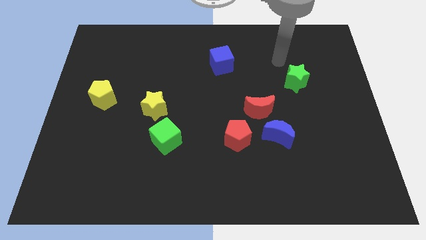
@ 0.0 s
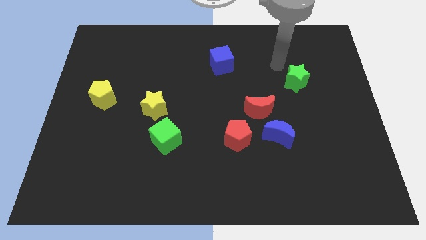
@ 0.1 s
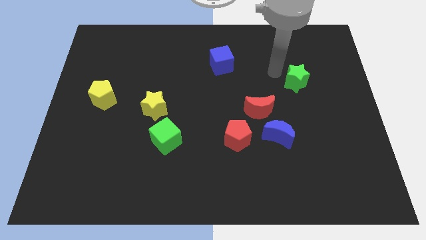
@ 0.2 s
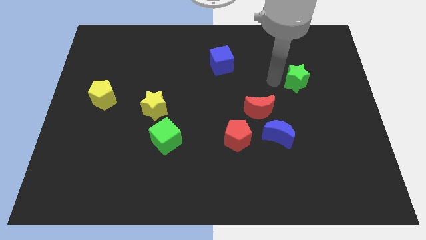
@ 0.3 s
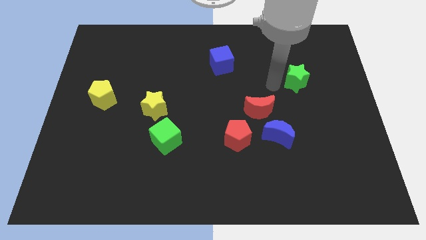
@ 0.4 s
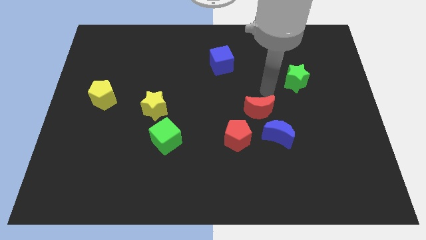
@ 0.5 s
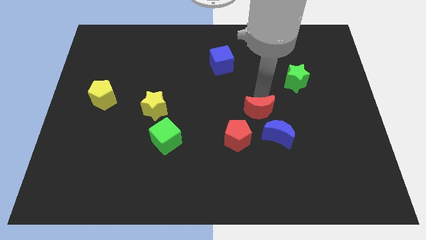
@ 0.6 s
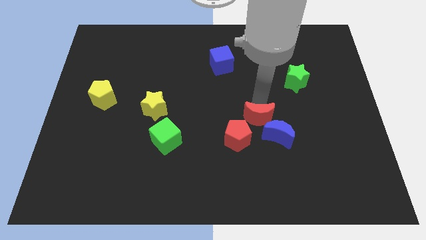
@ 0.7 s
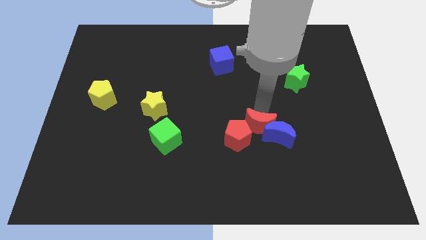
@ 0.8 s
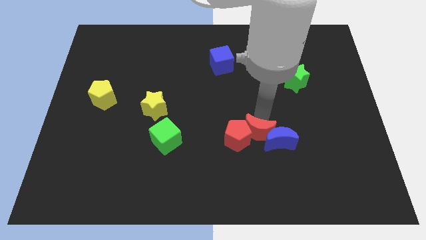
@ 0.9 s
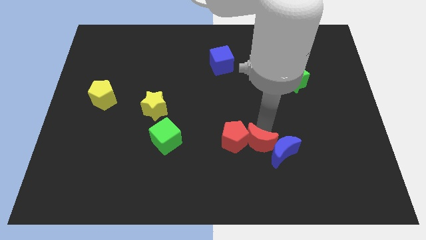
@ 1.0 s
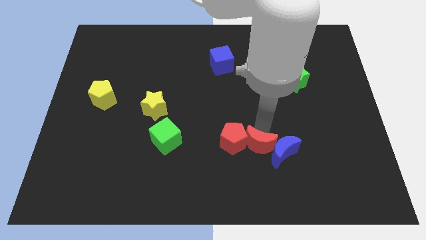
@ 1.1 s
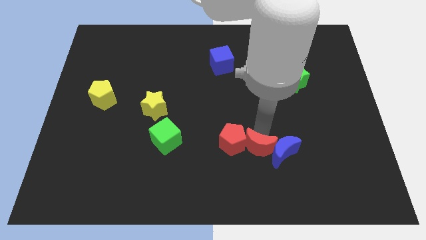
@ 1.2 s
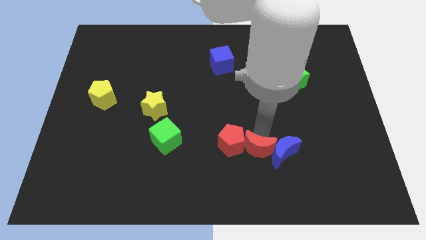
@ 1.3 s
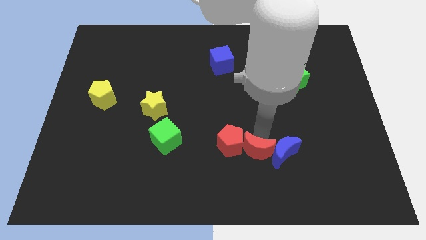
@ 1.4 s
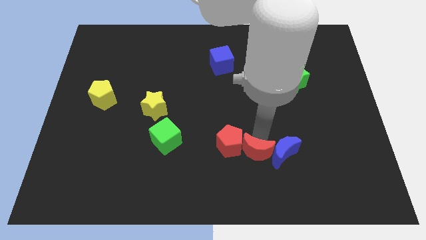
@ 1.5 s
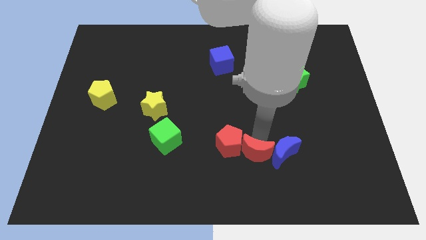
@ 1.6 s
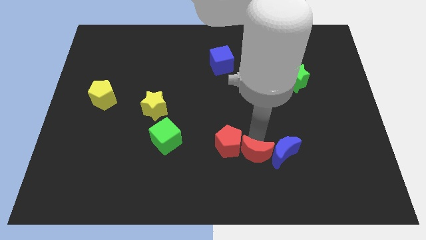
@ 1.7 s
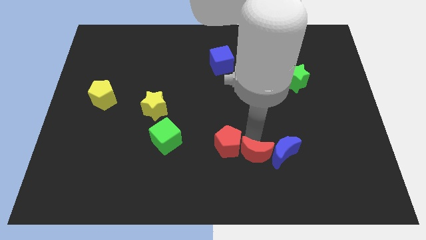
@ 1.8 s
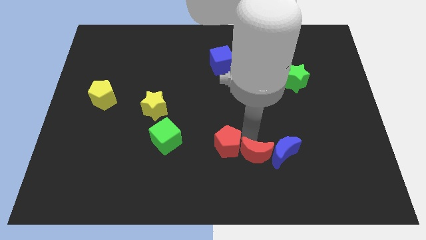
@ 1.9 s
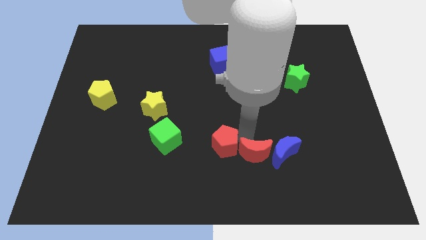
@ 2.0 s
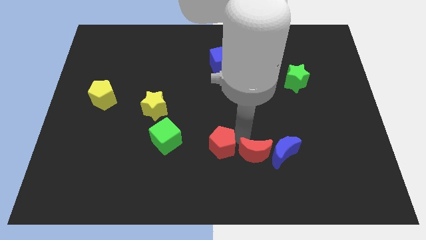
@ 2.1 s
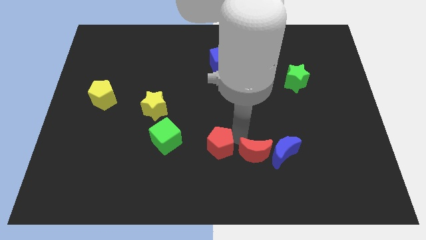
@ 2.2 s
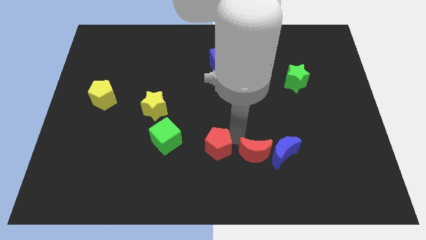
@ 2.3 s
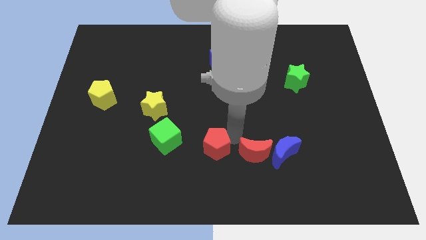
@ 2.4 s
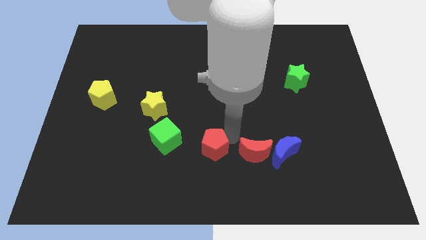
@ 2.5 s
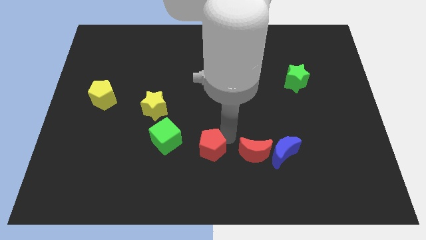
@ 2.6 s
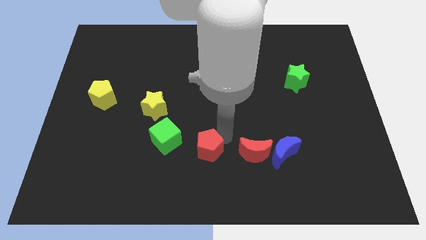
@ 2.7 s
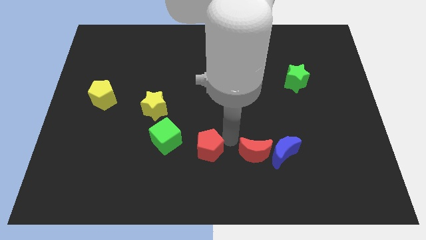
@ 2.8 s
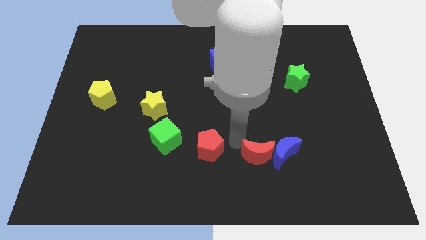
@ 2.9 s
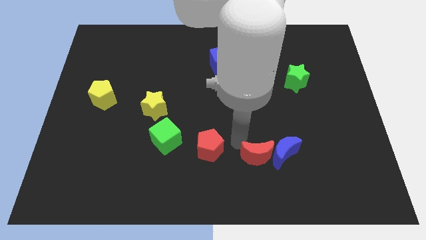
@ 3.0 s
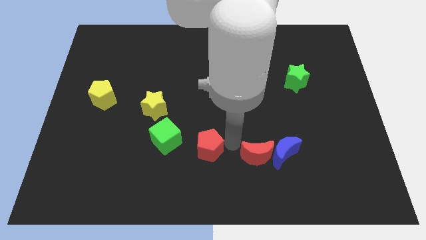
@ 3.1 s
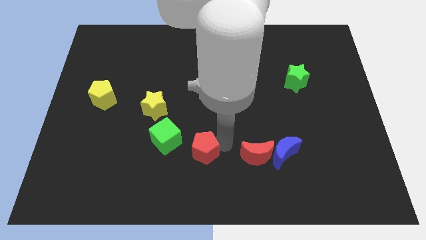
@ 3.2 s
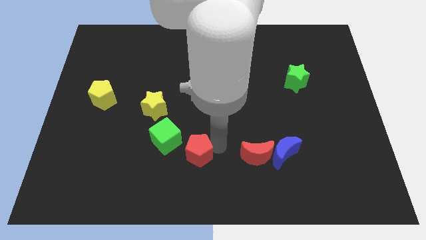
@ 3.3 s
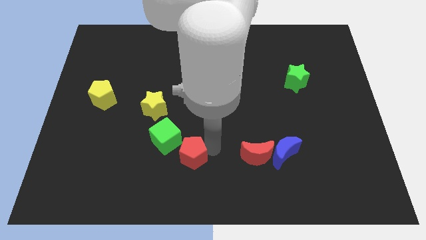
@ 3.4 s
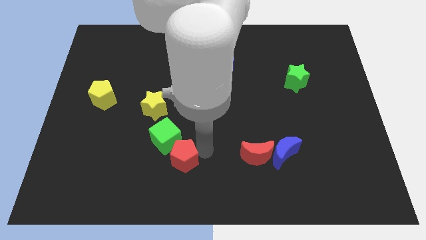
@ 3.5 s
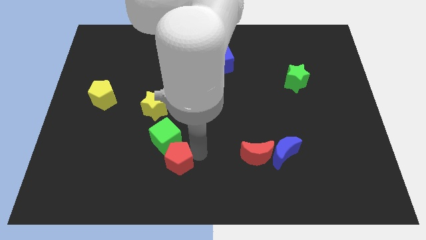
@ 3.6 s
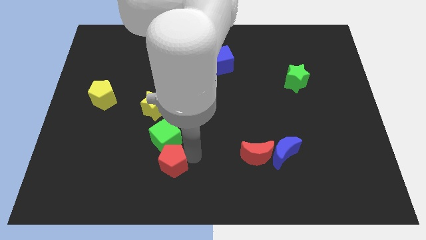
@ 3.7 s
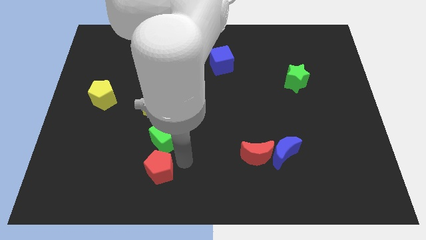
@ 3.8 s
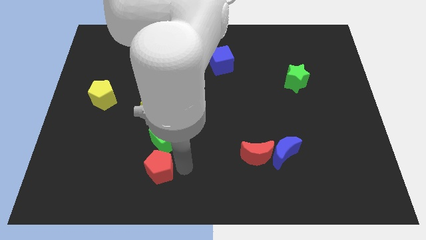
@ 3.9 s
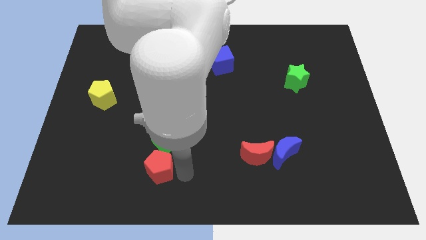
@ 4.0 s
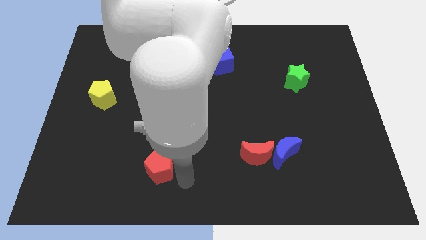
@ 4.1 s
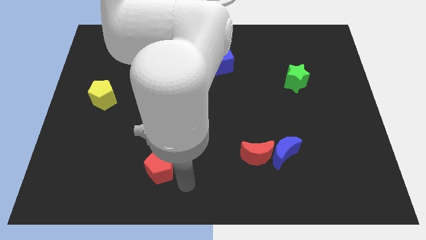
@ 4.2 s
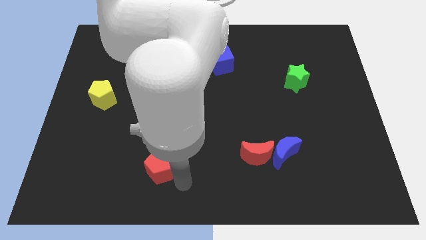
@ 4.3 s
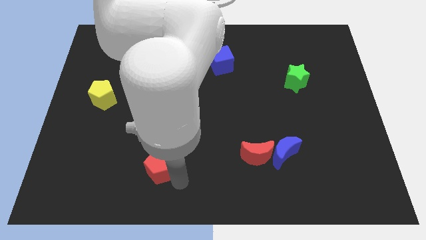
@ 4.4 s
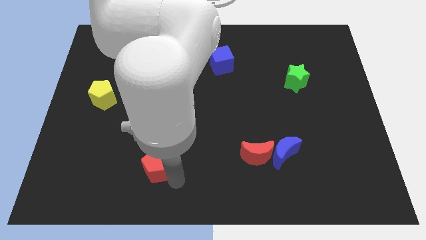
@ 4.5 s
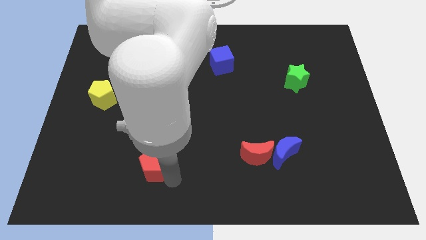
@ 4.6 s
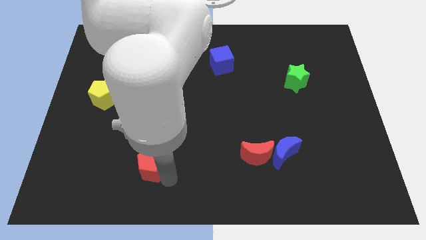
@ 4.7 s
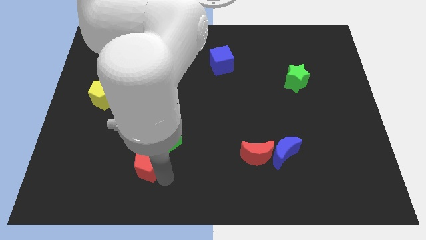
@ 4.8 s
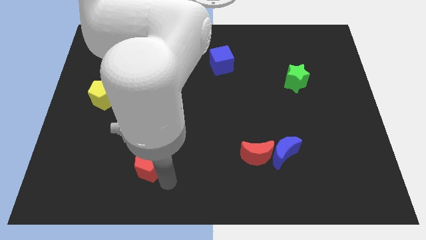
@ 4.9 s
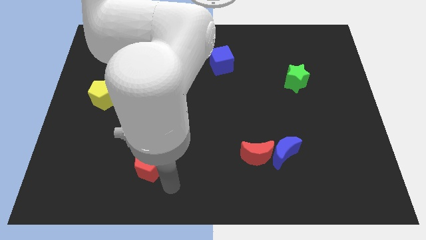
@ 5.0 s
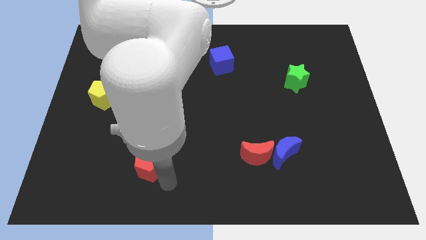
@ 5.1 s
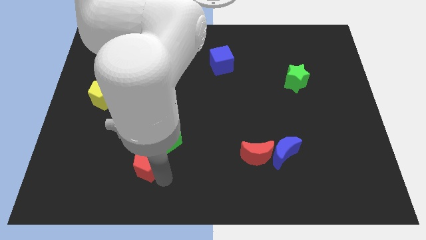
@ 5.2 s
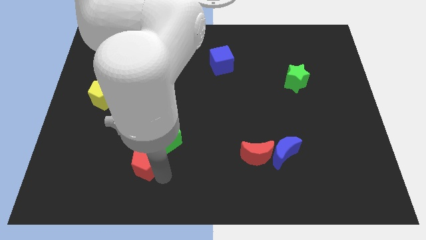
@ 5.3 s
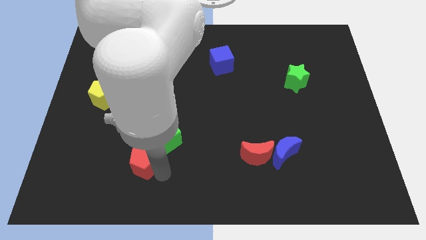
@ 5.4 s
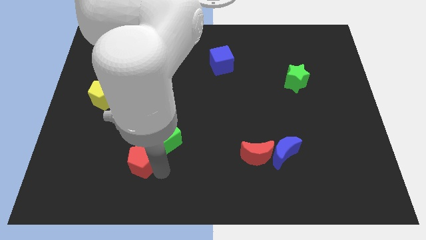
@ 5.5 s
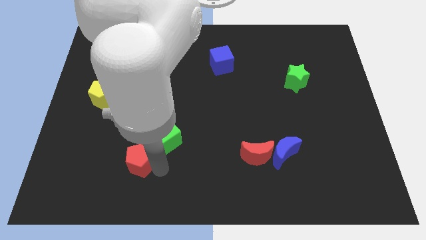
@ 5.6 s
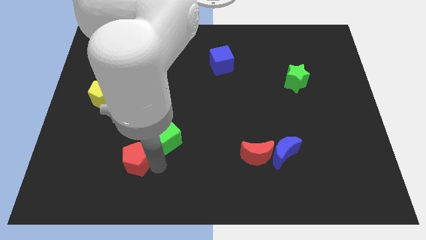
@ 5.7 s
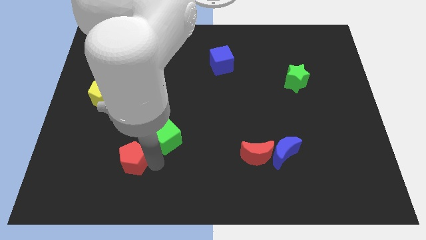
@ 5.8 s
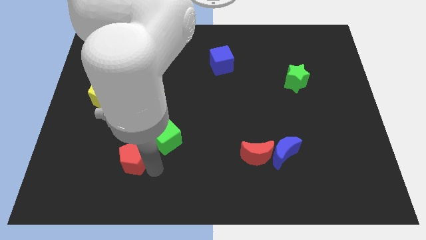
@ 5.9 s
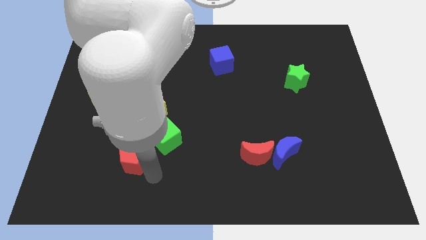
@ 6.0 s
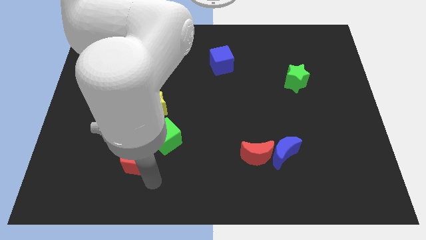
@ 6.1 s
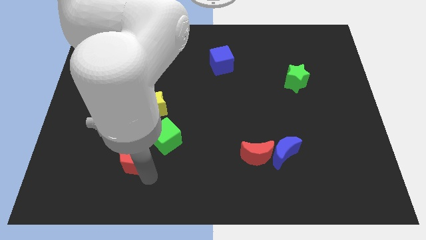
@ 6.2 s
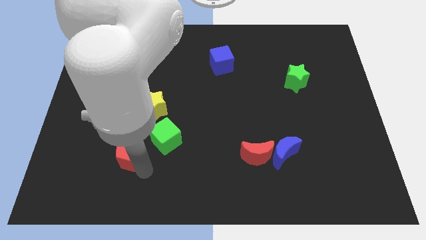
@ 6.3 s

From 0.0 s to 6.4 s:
put the red pentagon just left of the green cube

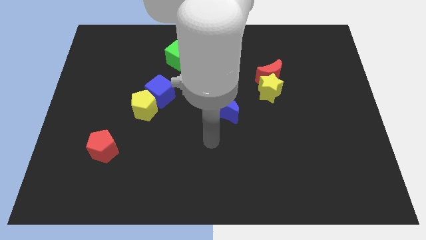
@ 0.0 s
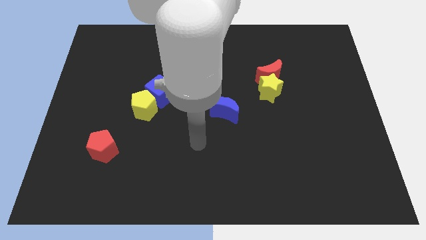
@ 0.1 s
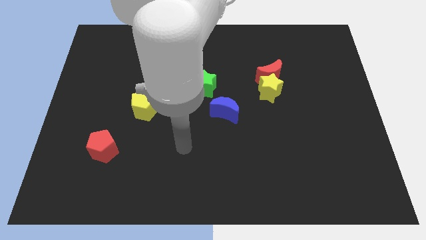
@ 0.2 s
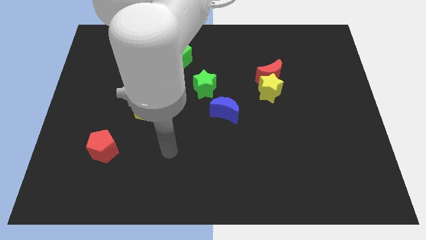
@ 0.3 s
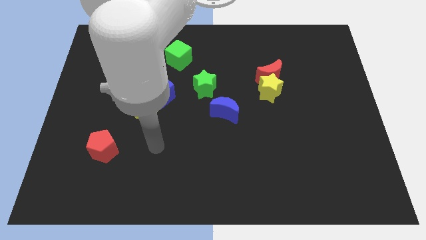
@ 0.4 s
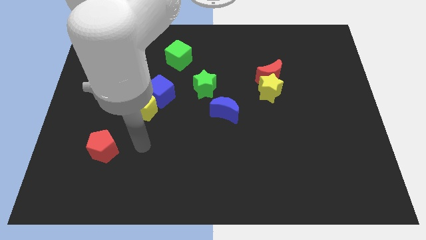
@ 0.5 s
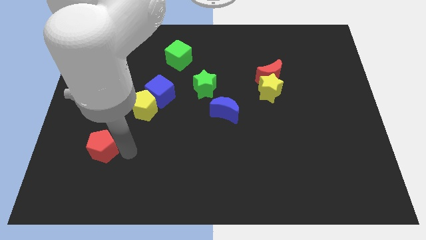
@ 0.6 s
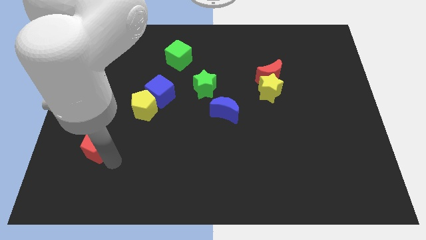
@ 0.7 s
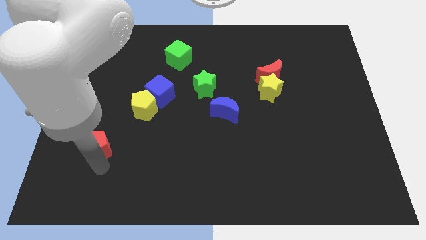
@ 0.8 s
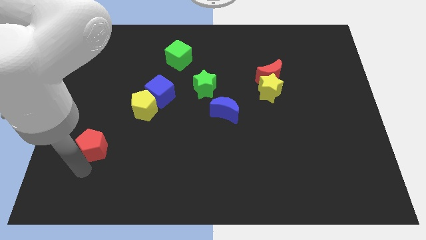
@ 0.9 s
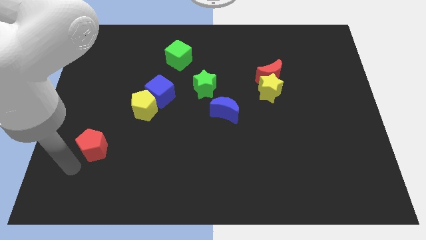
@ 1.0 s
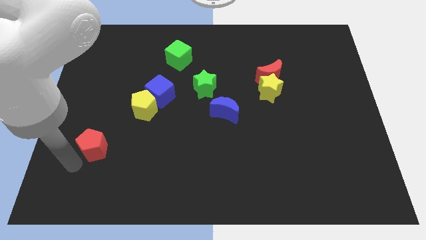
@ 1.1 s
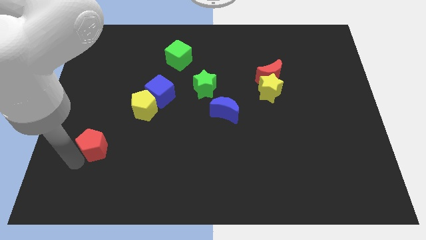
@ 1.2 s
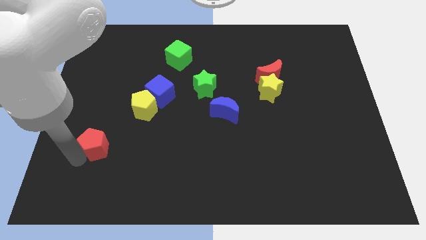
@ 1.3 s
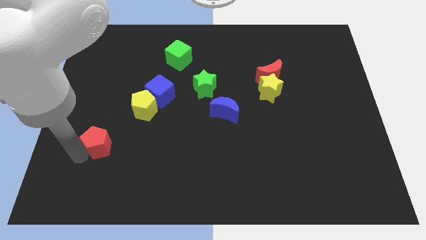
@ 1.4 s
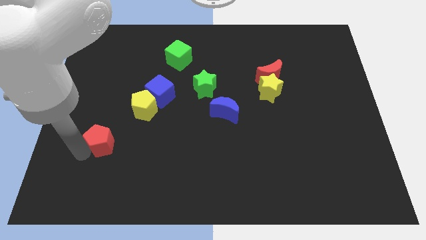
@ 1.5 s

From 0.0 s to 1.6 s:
move the red pentagon diagonally down and to the left of the yellow pentagon
